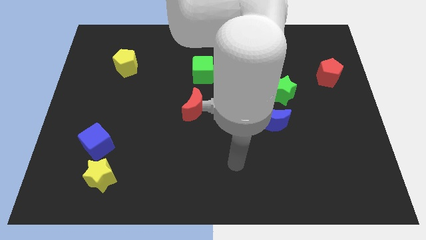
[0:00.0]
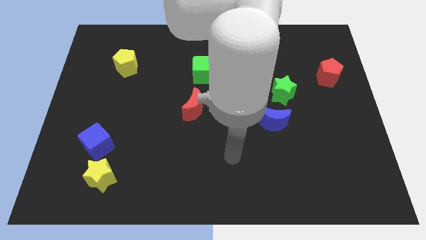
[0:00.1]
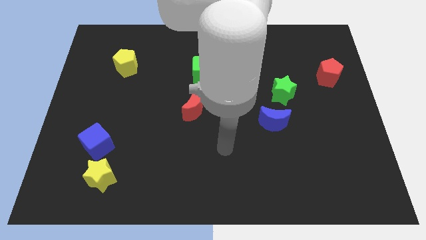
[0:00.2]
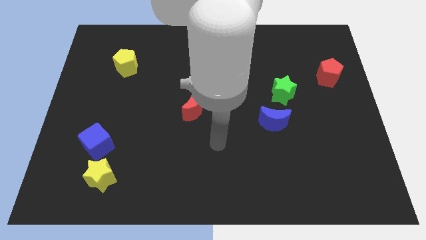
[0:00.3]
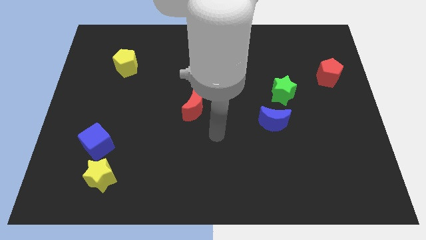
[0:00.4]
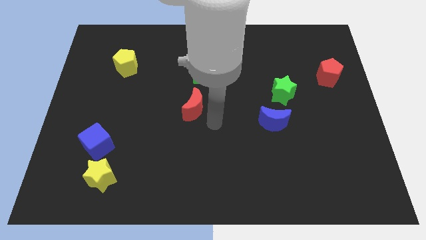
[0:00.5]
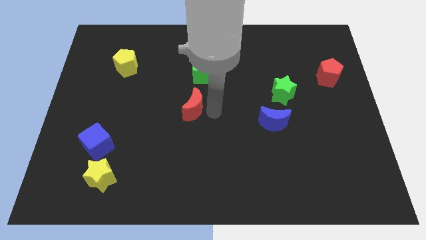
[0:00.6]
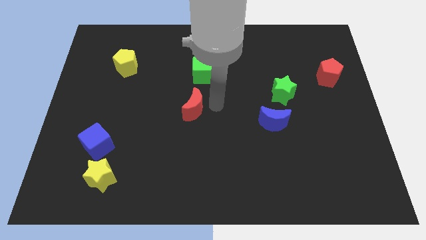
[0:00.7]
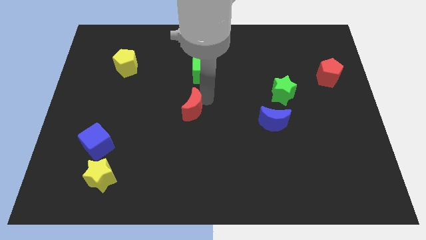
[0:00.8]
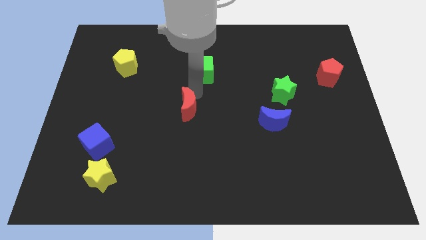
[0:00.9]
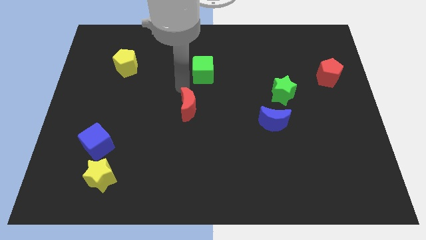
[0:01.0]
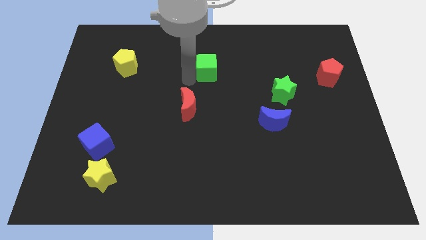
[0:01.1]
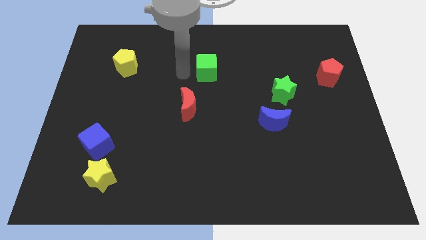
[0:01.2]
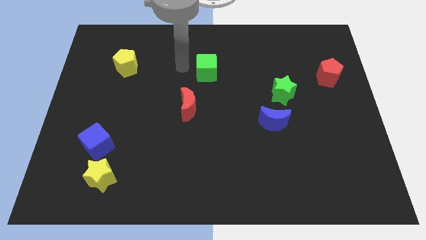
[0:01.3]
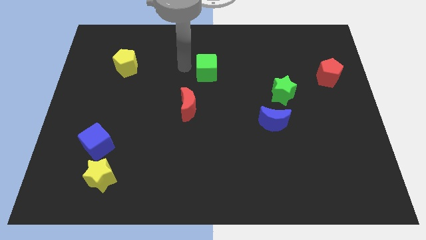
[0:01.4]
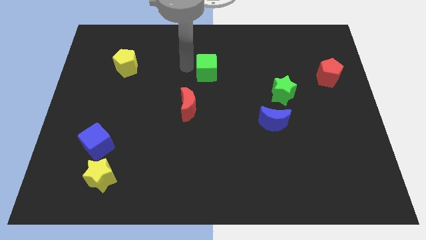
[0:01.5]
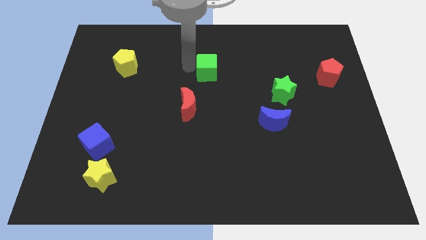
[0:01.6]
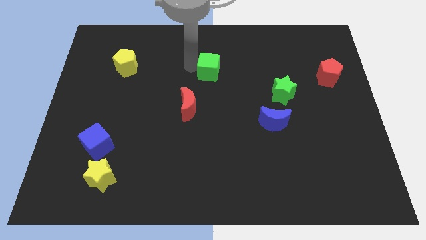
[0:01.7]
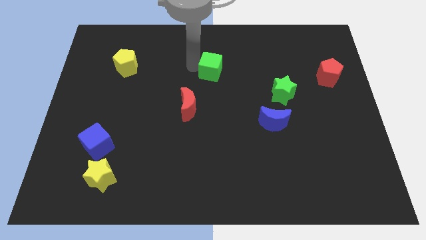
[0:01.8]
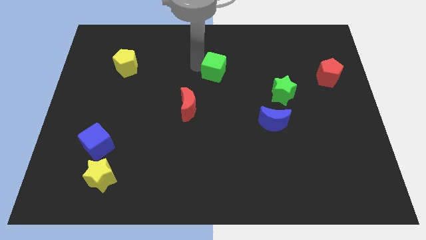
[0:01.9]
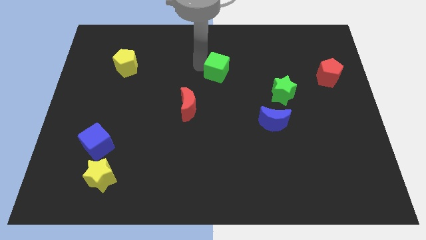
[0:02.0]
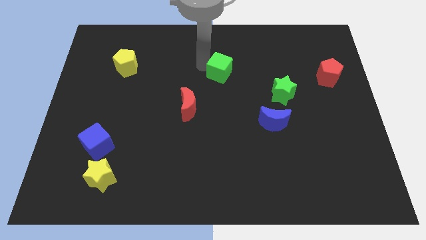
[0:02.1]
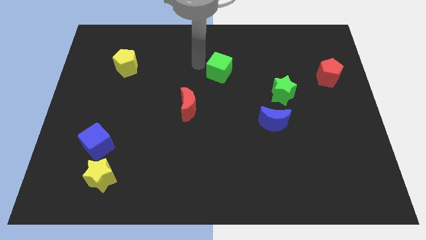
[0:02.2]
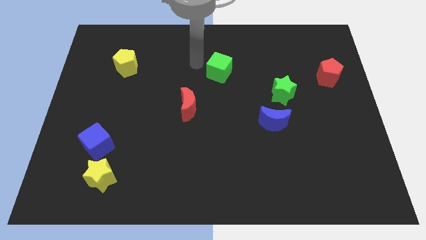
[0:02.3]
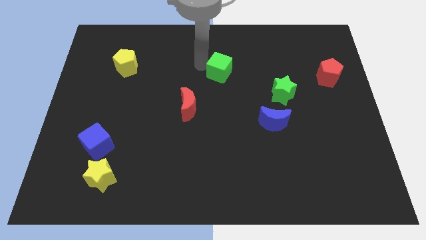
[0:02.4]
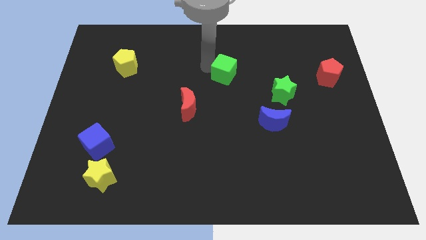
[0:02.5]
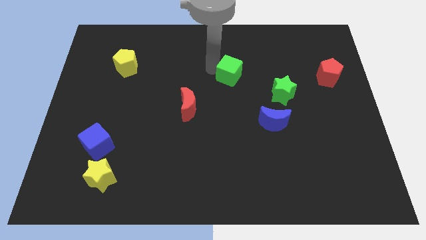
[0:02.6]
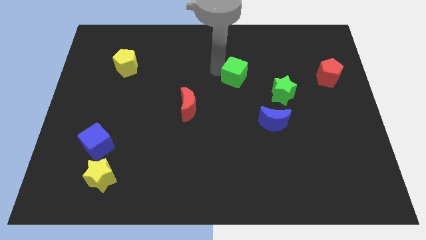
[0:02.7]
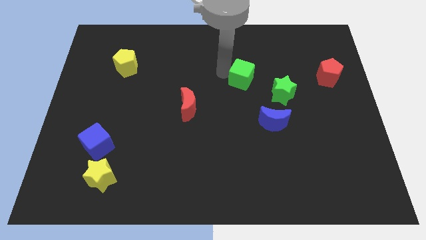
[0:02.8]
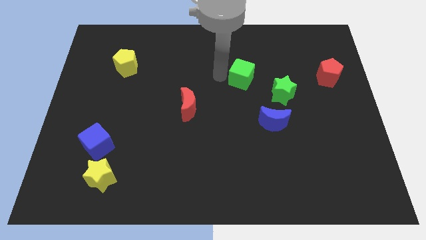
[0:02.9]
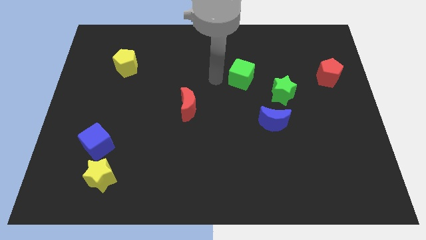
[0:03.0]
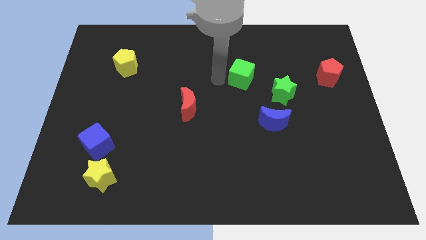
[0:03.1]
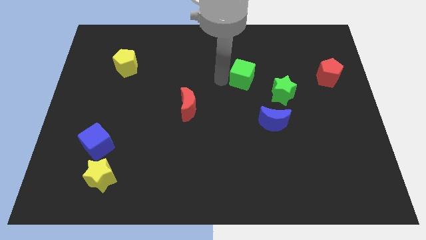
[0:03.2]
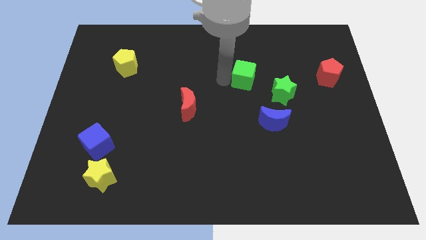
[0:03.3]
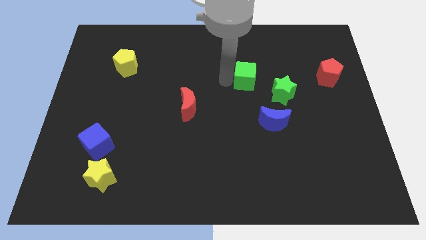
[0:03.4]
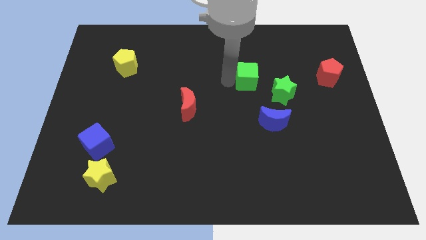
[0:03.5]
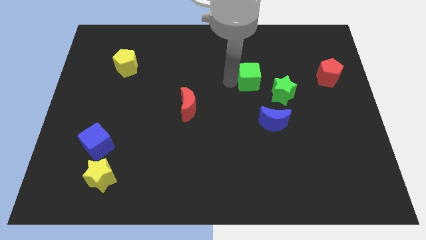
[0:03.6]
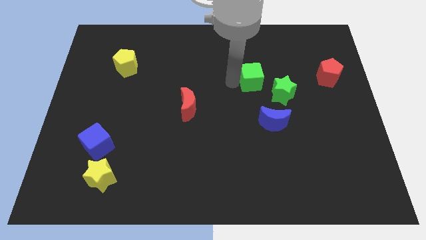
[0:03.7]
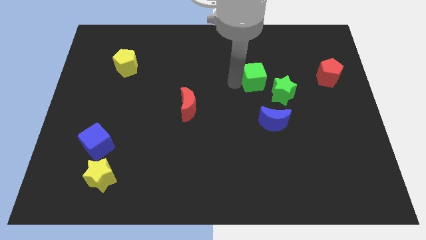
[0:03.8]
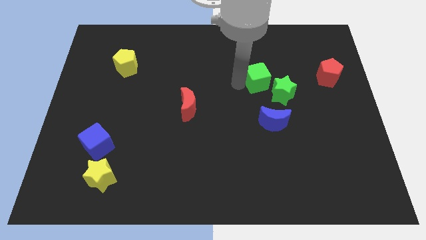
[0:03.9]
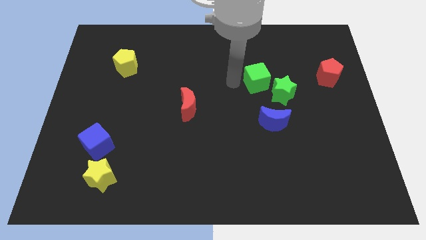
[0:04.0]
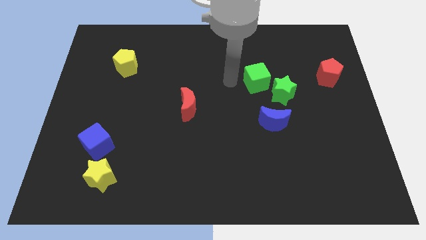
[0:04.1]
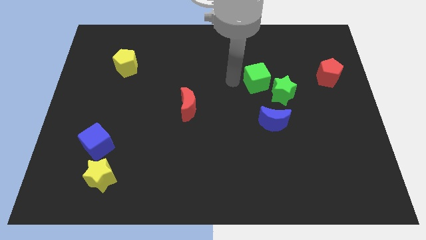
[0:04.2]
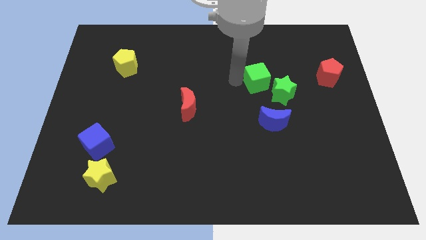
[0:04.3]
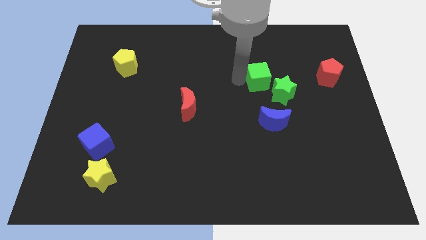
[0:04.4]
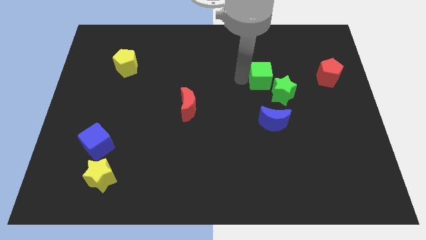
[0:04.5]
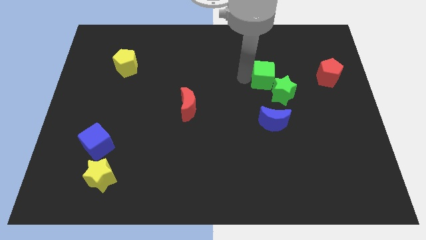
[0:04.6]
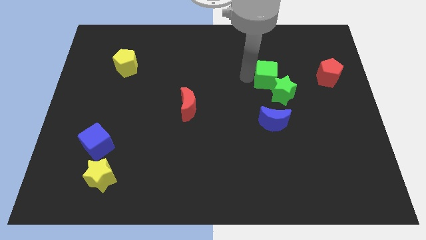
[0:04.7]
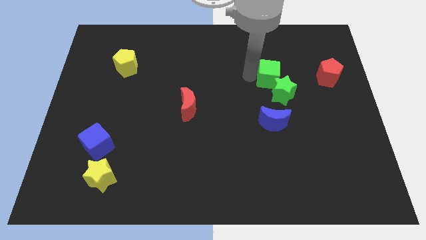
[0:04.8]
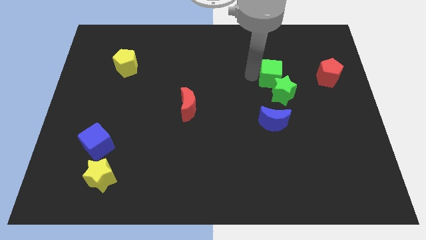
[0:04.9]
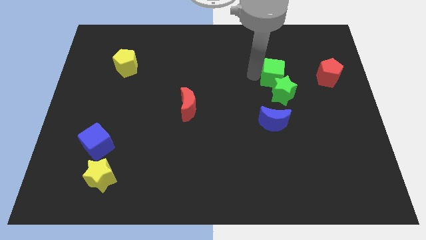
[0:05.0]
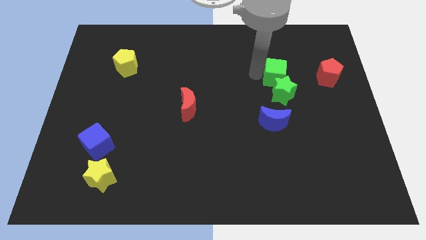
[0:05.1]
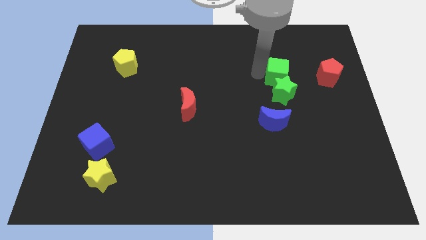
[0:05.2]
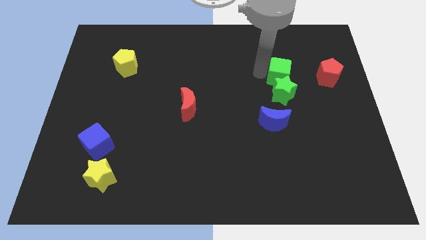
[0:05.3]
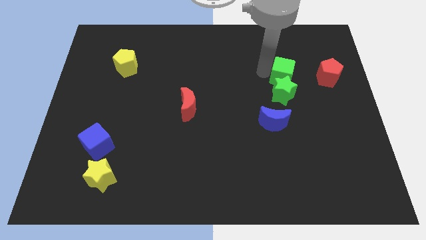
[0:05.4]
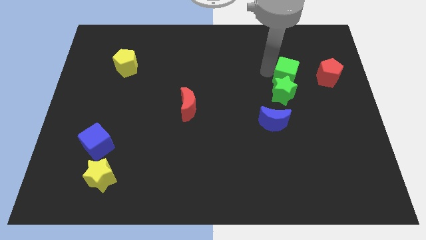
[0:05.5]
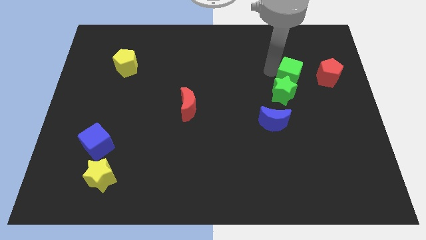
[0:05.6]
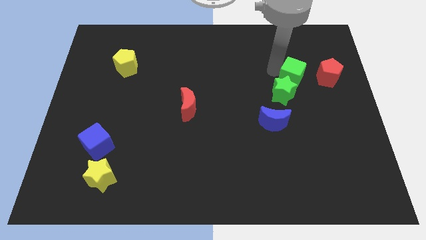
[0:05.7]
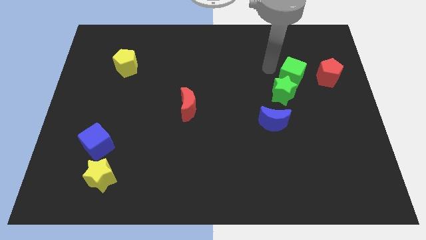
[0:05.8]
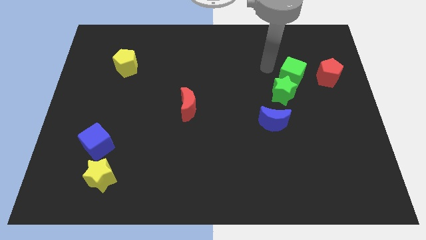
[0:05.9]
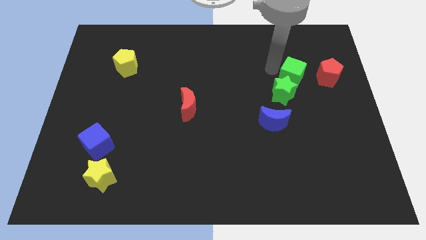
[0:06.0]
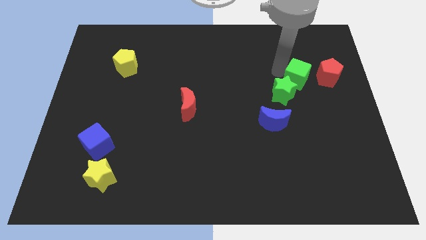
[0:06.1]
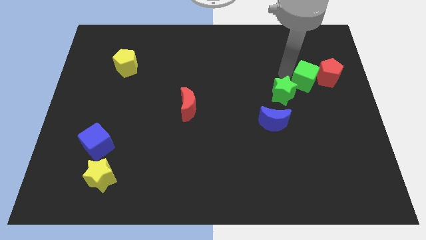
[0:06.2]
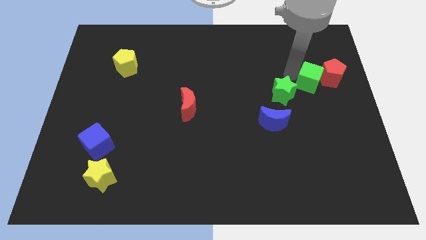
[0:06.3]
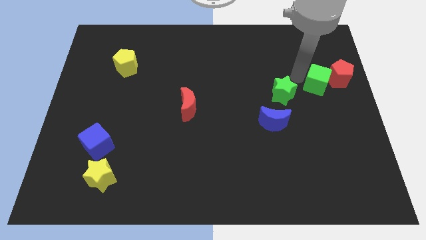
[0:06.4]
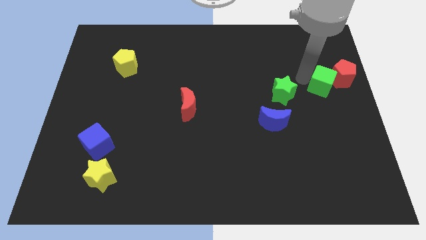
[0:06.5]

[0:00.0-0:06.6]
slide the green cube to the center right

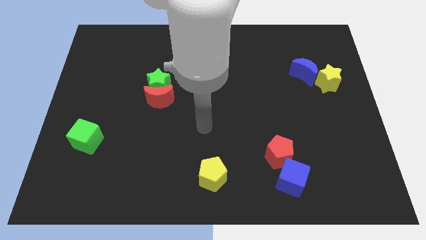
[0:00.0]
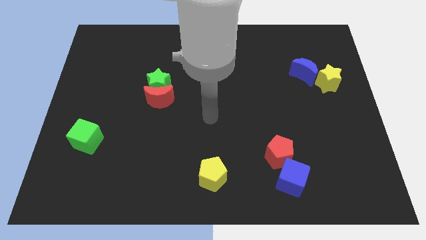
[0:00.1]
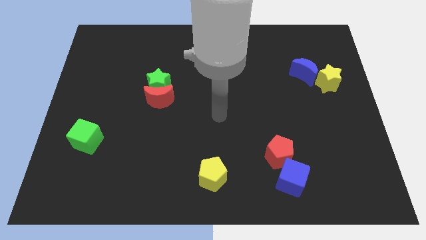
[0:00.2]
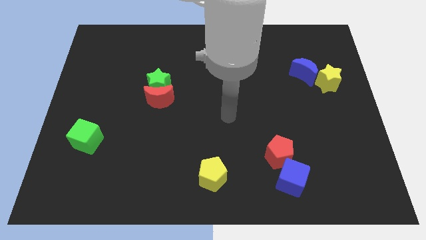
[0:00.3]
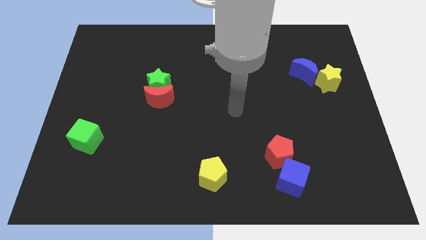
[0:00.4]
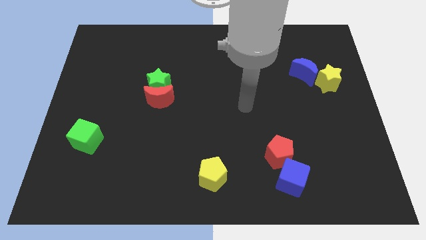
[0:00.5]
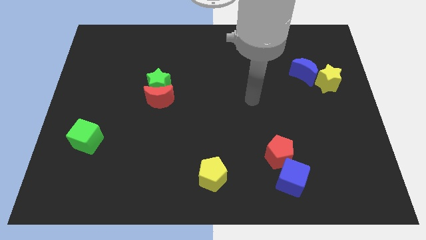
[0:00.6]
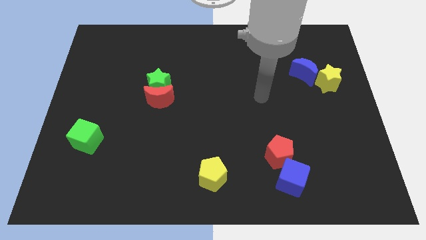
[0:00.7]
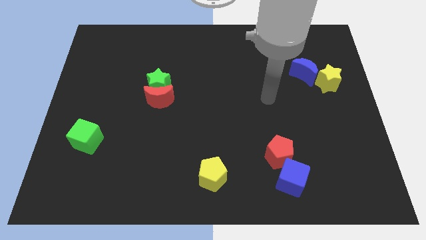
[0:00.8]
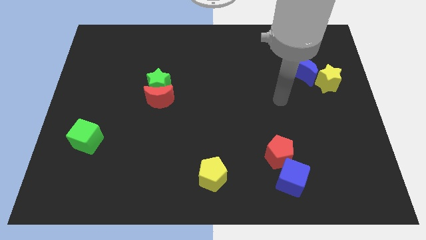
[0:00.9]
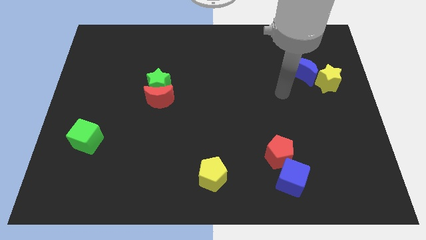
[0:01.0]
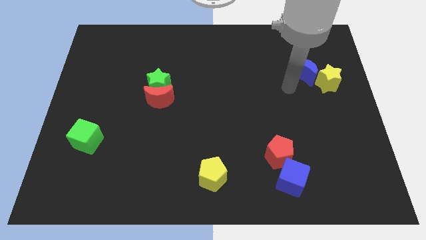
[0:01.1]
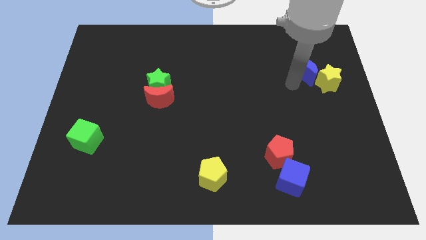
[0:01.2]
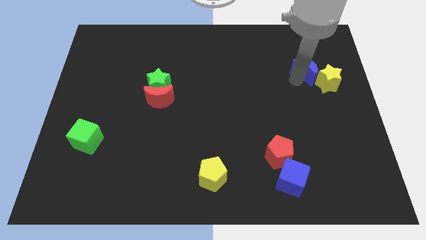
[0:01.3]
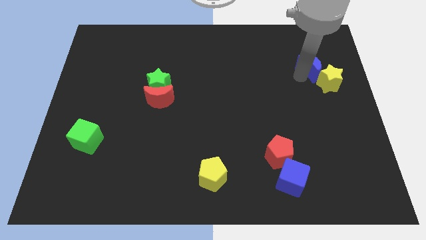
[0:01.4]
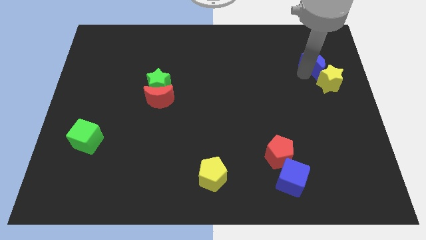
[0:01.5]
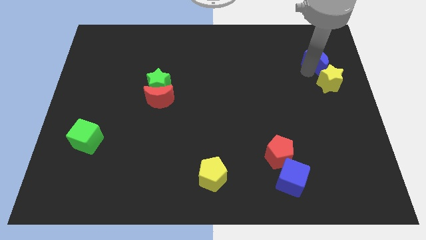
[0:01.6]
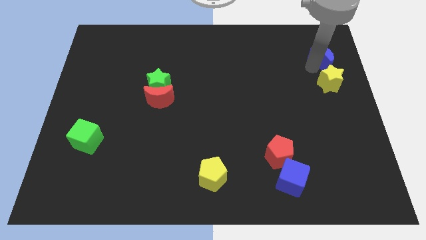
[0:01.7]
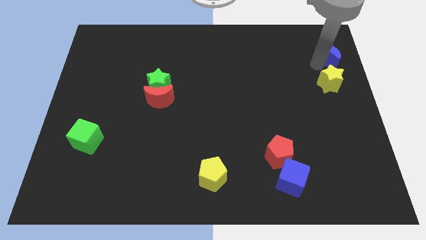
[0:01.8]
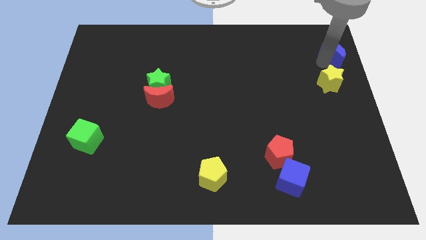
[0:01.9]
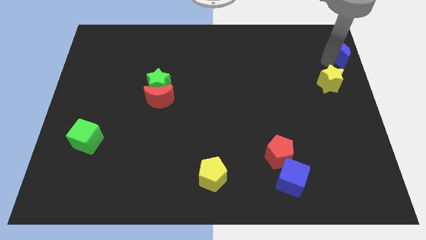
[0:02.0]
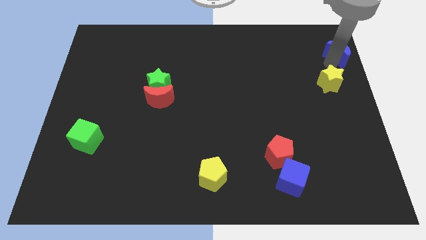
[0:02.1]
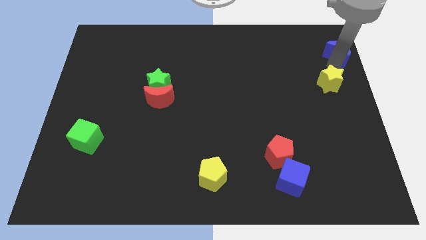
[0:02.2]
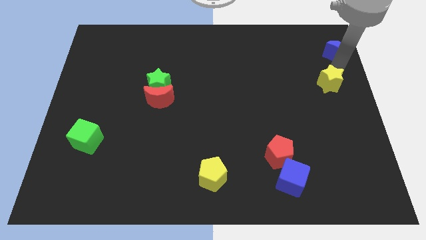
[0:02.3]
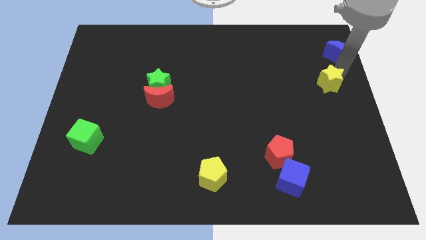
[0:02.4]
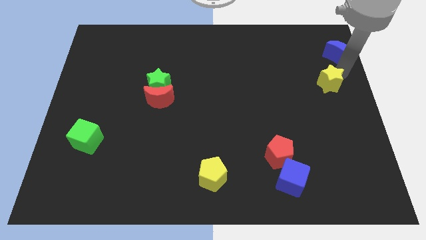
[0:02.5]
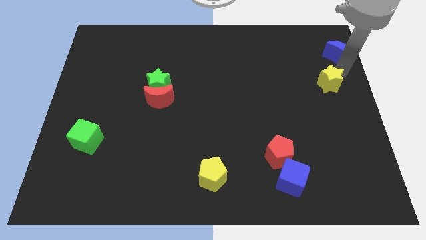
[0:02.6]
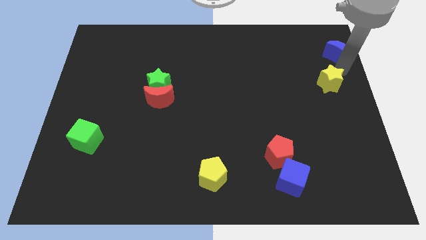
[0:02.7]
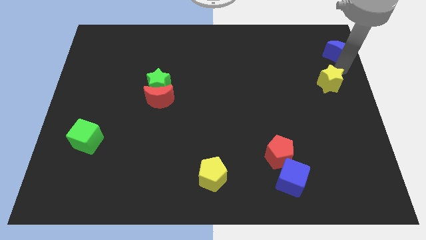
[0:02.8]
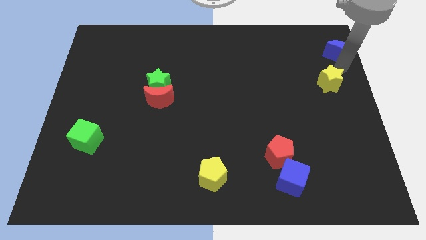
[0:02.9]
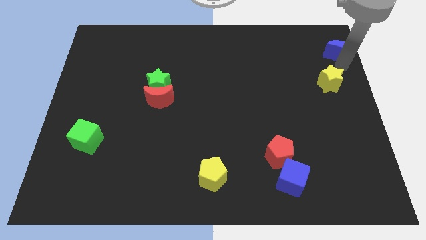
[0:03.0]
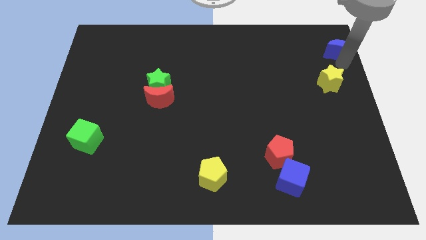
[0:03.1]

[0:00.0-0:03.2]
push the blue moon to the top right
